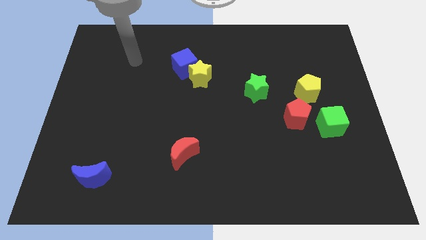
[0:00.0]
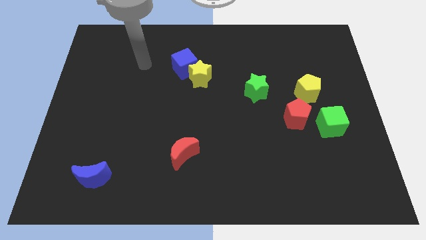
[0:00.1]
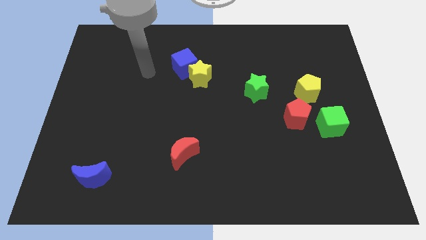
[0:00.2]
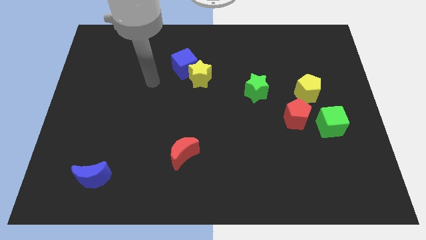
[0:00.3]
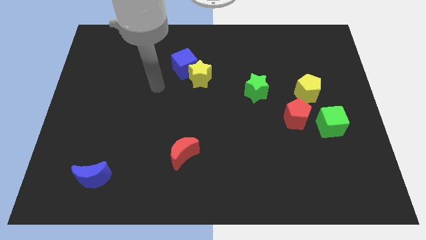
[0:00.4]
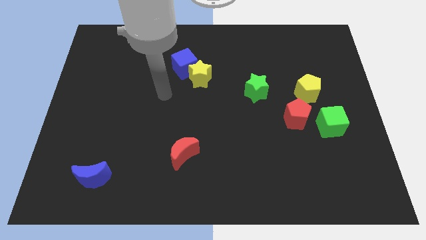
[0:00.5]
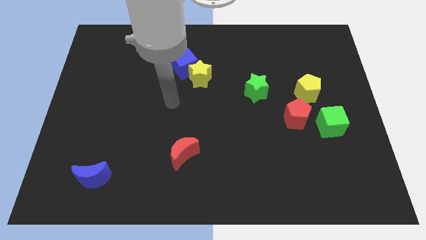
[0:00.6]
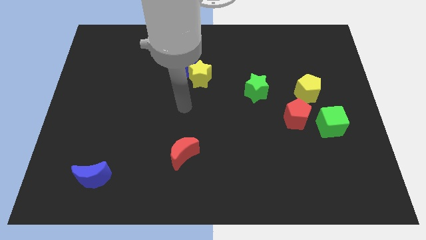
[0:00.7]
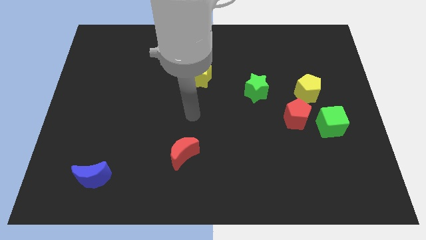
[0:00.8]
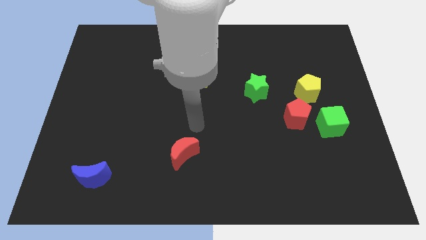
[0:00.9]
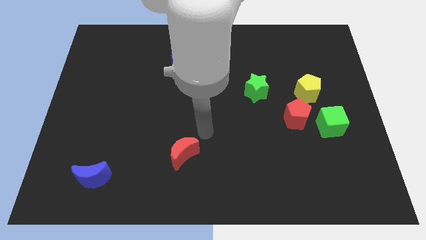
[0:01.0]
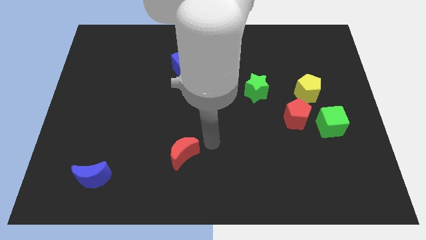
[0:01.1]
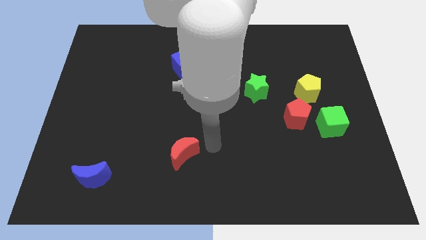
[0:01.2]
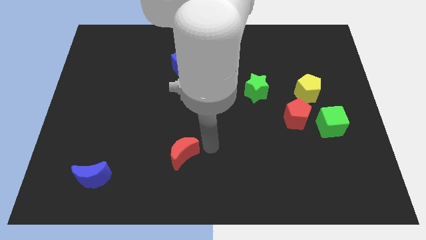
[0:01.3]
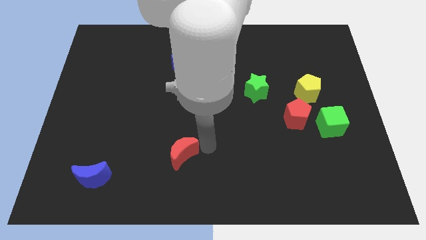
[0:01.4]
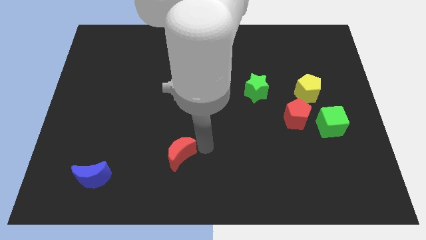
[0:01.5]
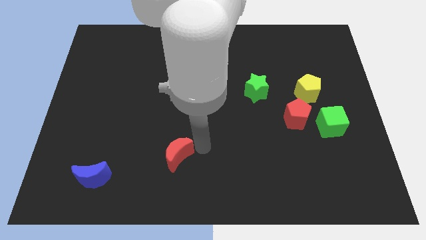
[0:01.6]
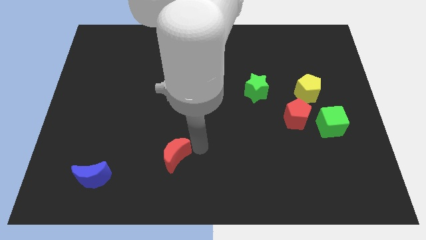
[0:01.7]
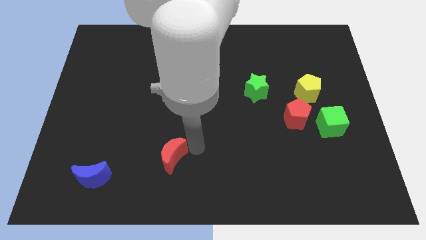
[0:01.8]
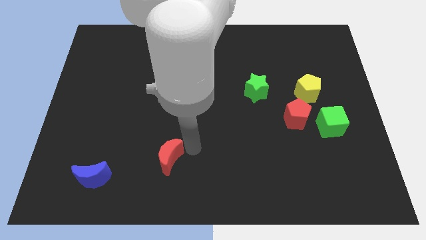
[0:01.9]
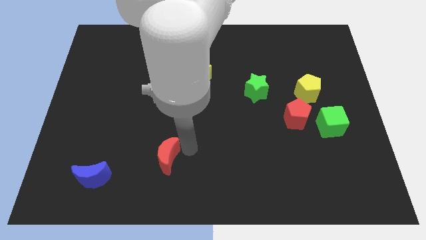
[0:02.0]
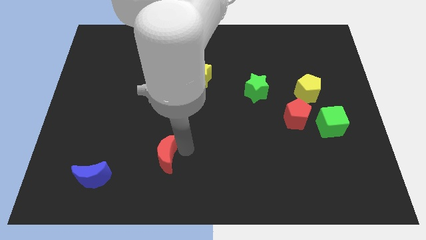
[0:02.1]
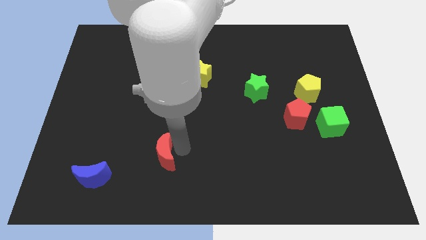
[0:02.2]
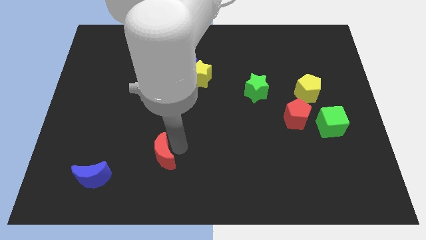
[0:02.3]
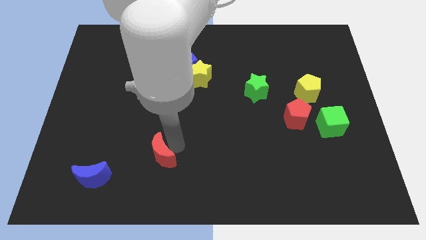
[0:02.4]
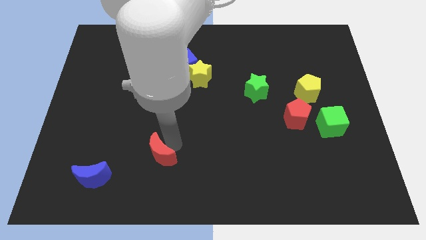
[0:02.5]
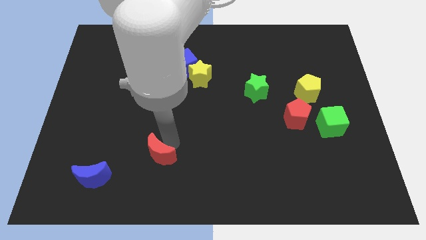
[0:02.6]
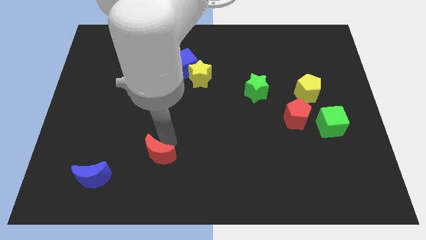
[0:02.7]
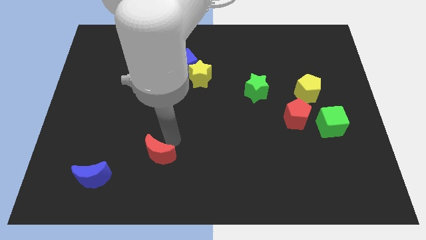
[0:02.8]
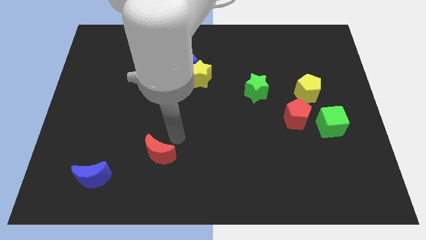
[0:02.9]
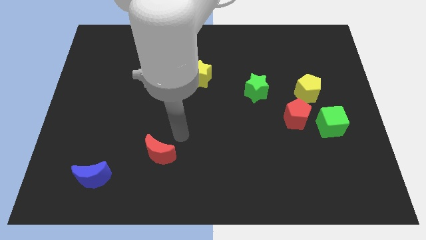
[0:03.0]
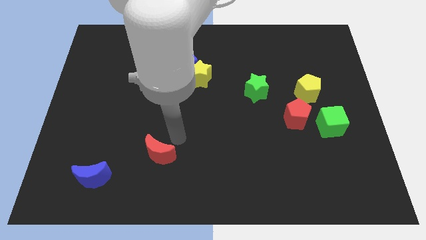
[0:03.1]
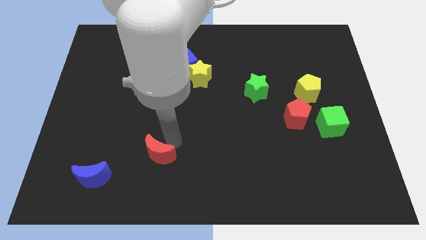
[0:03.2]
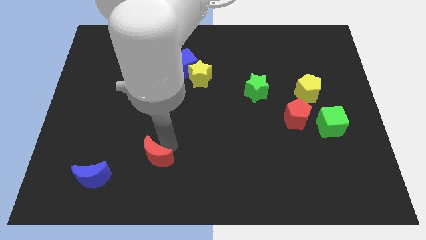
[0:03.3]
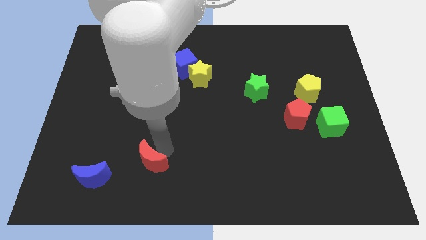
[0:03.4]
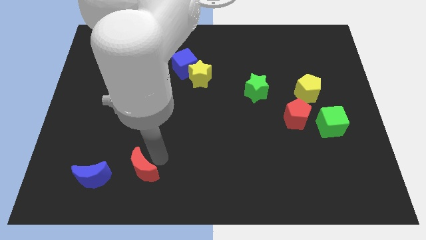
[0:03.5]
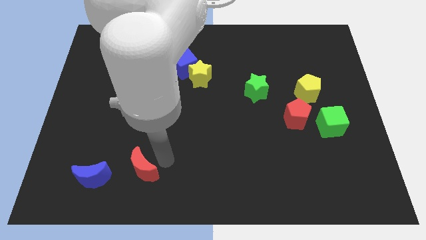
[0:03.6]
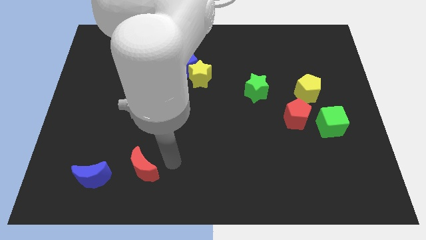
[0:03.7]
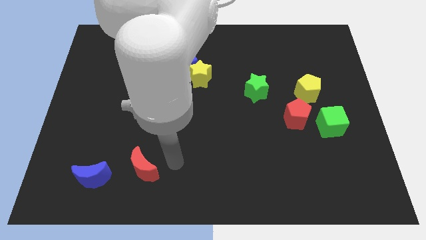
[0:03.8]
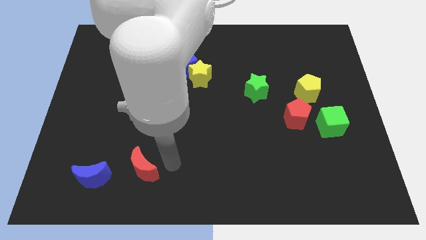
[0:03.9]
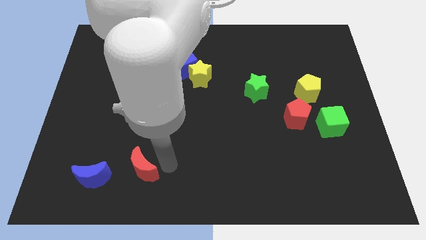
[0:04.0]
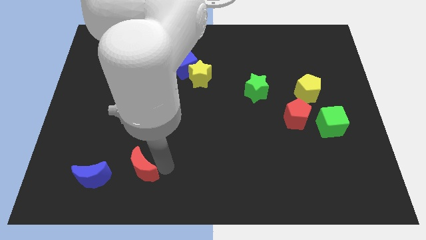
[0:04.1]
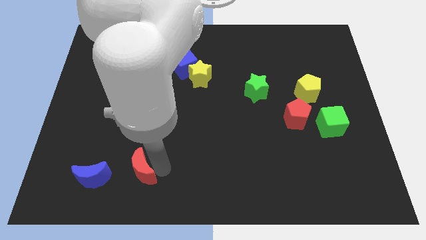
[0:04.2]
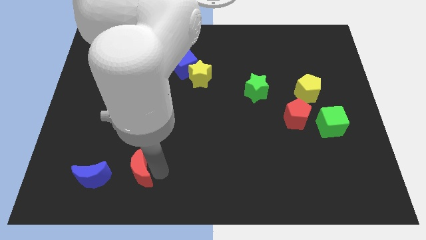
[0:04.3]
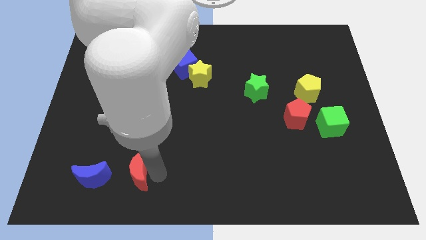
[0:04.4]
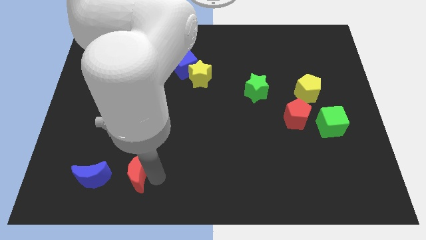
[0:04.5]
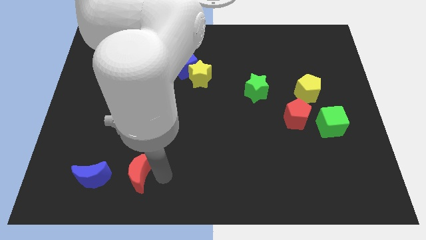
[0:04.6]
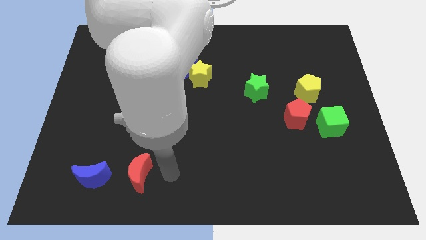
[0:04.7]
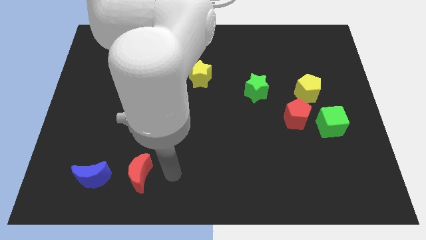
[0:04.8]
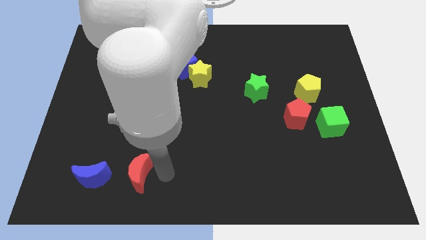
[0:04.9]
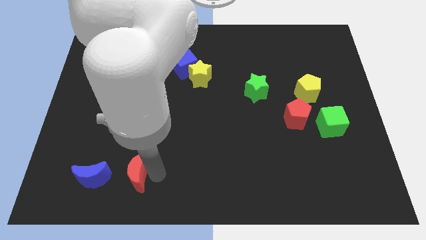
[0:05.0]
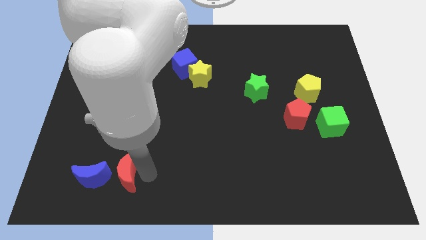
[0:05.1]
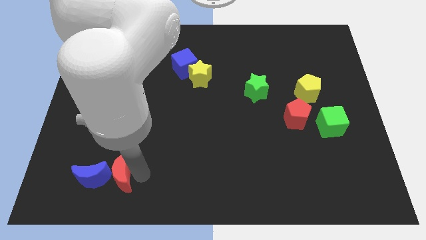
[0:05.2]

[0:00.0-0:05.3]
push the red moon next to the blue moon

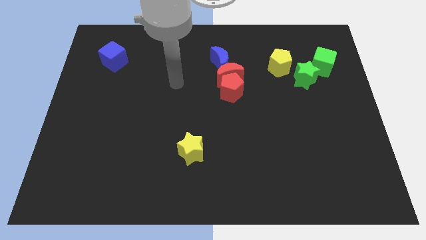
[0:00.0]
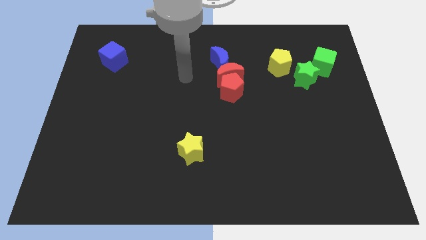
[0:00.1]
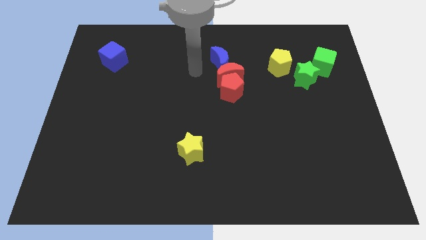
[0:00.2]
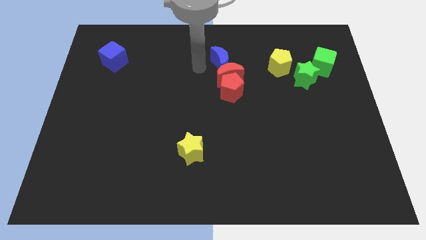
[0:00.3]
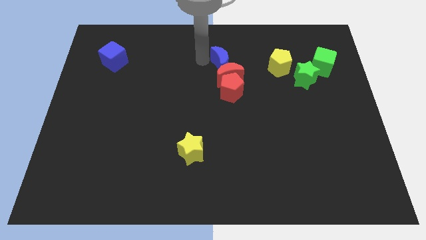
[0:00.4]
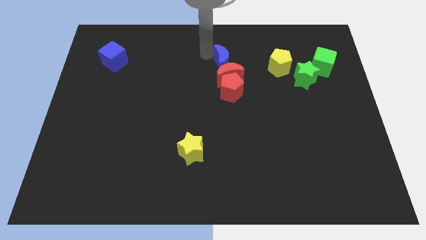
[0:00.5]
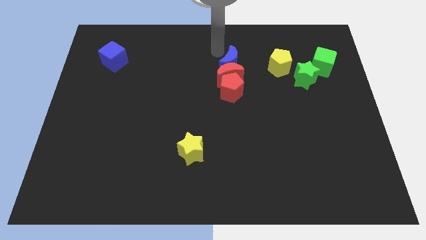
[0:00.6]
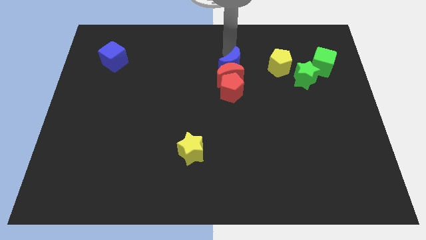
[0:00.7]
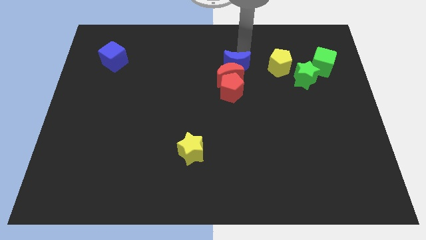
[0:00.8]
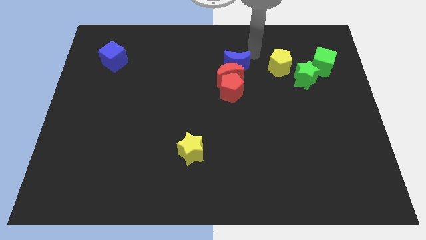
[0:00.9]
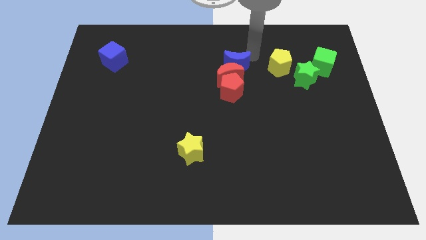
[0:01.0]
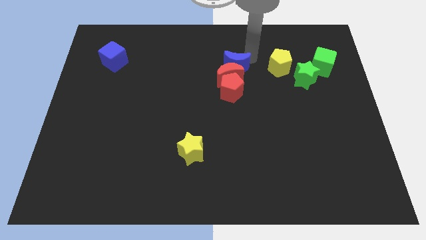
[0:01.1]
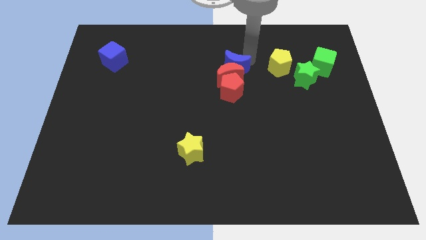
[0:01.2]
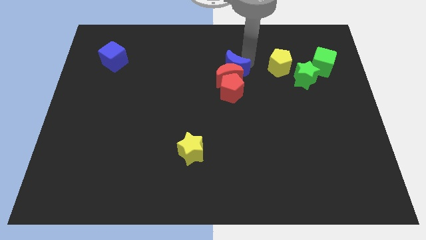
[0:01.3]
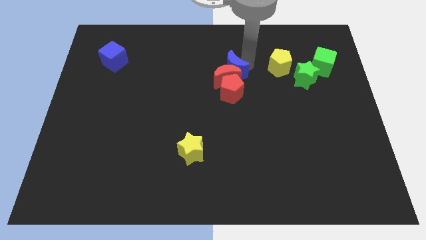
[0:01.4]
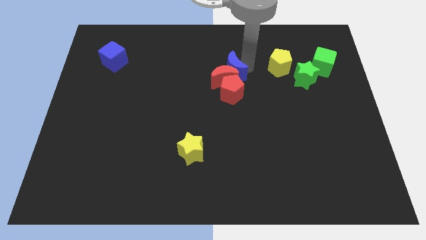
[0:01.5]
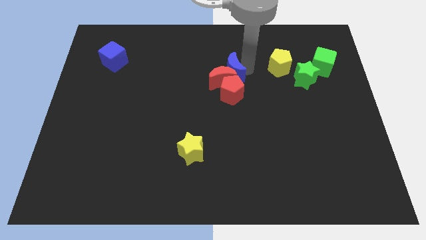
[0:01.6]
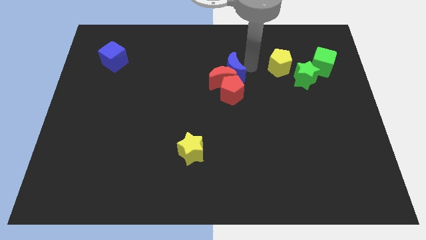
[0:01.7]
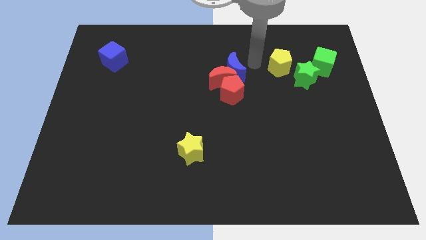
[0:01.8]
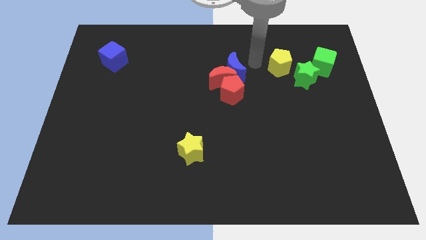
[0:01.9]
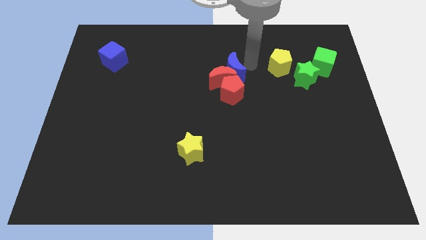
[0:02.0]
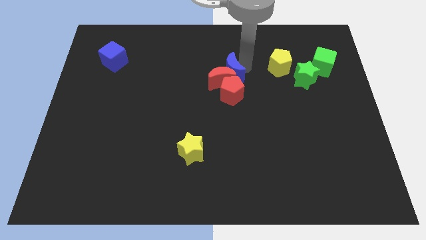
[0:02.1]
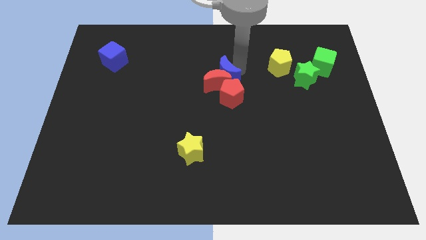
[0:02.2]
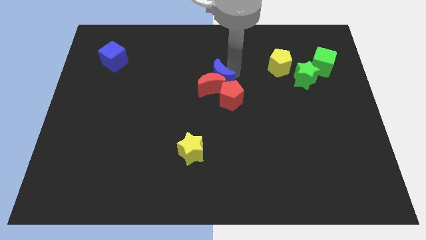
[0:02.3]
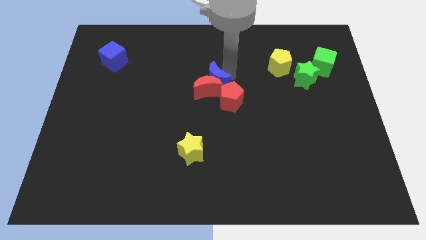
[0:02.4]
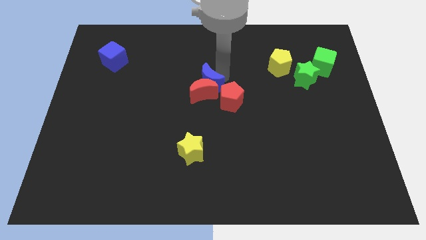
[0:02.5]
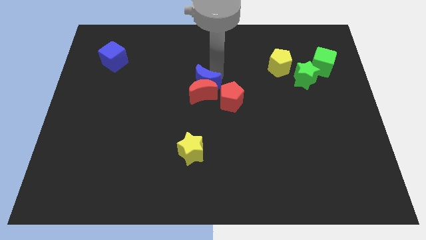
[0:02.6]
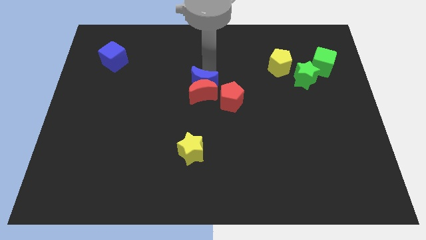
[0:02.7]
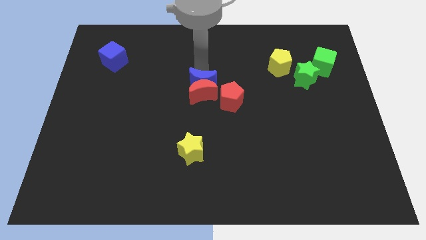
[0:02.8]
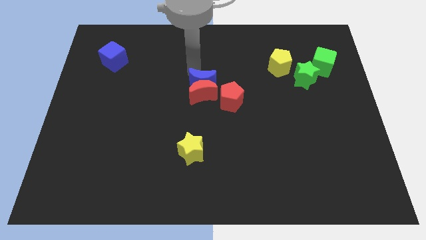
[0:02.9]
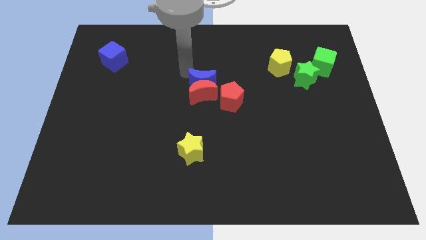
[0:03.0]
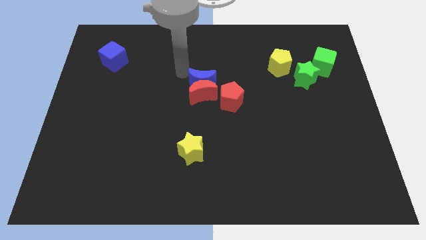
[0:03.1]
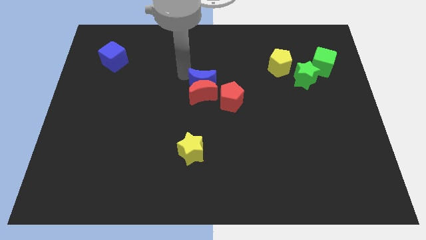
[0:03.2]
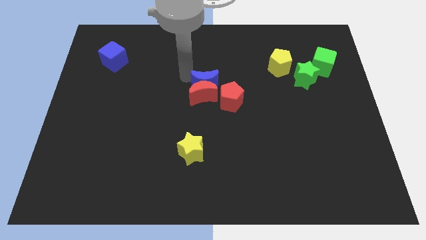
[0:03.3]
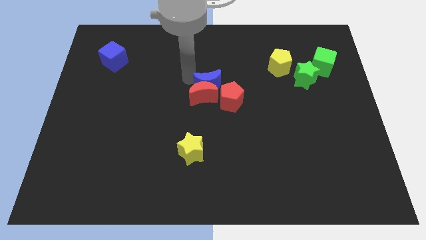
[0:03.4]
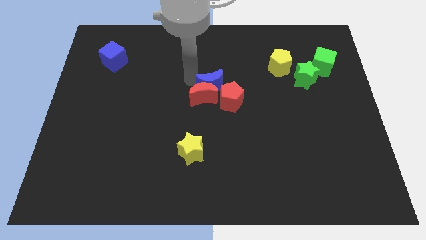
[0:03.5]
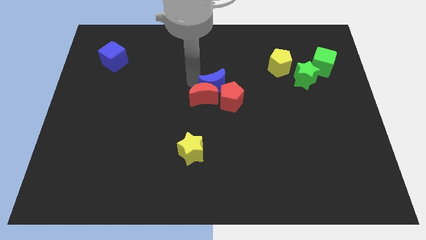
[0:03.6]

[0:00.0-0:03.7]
push the blue moon to the red pentagon
